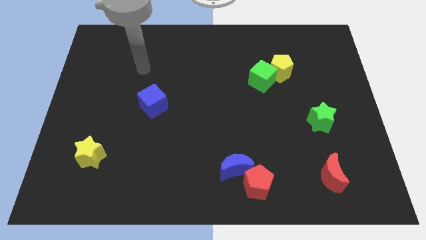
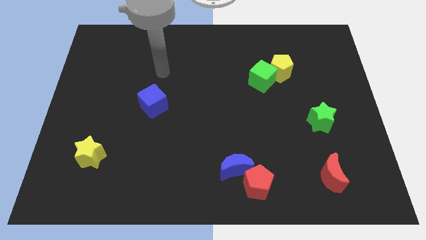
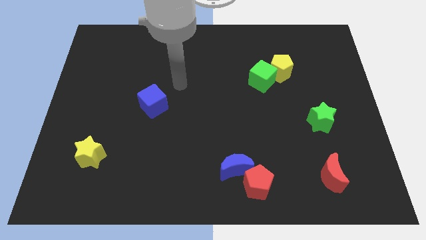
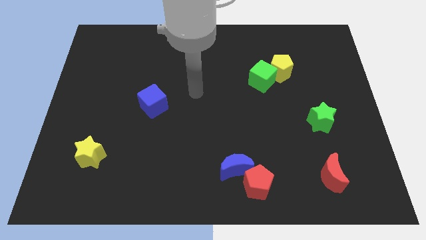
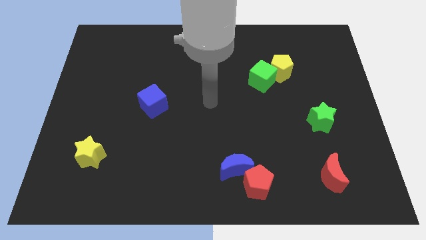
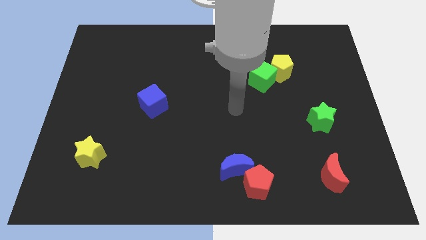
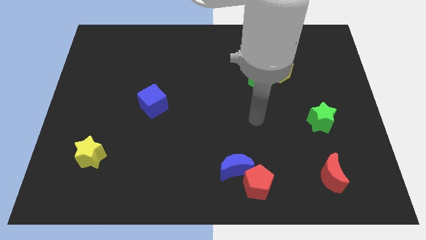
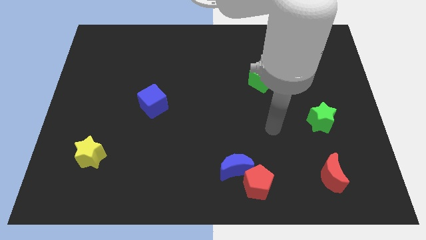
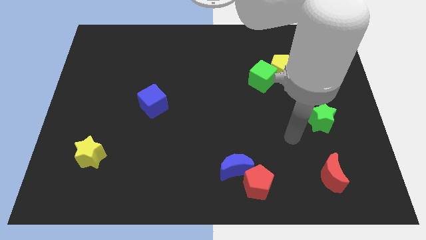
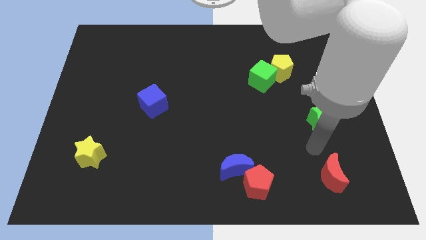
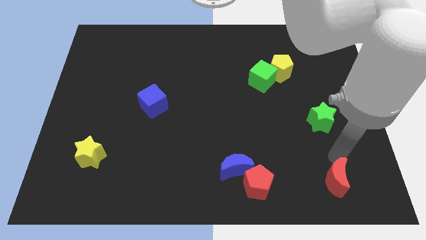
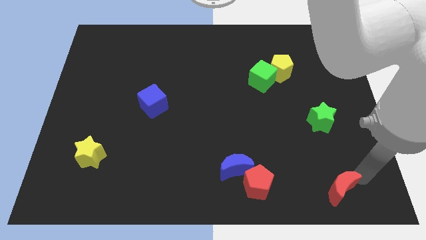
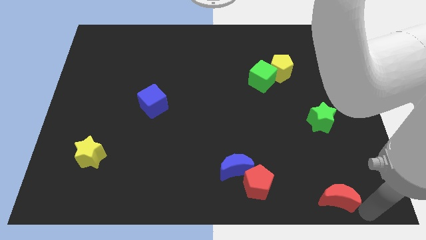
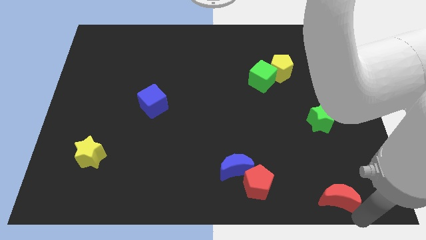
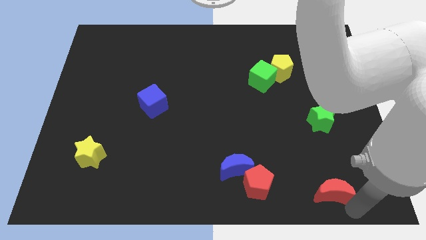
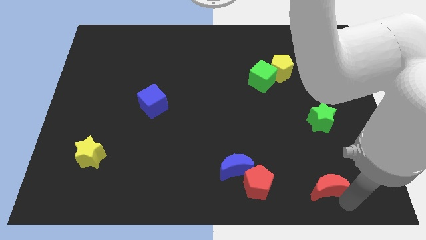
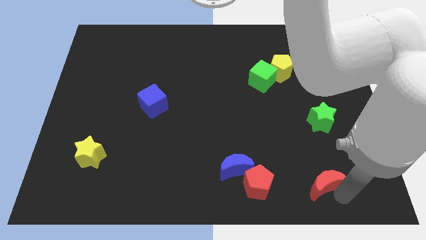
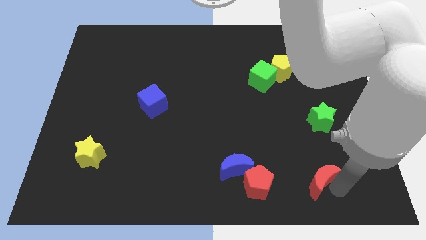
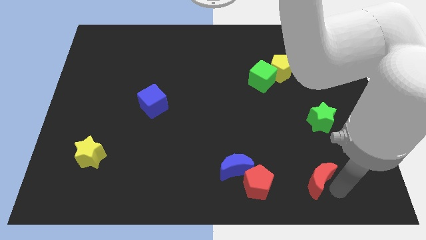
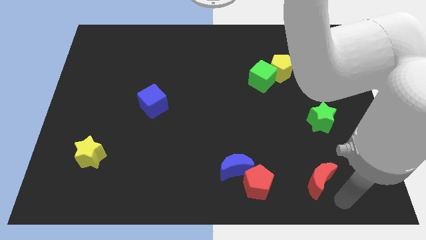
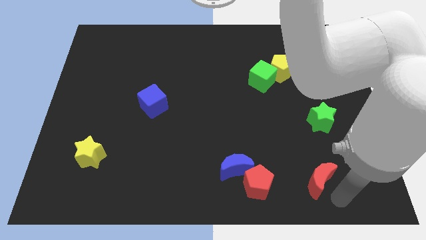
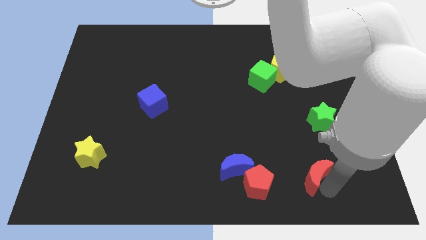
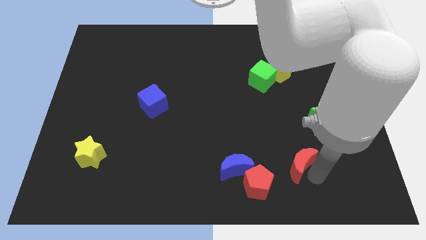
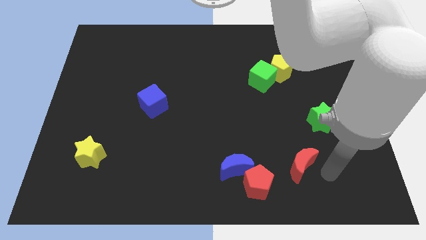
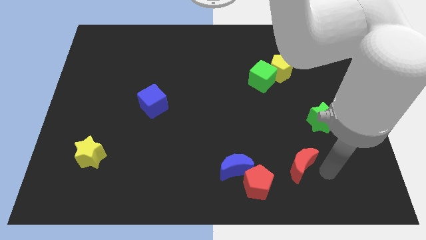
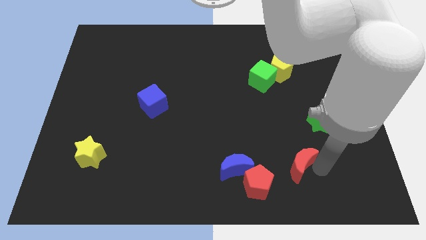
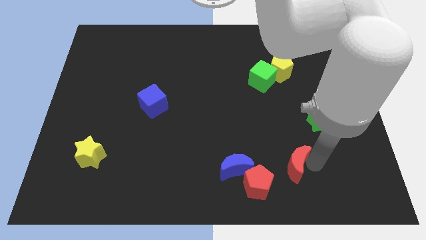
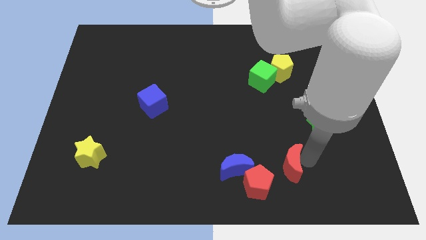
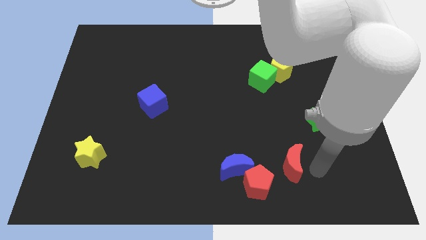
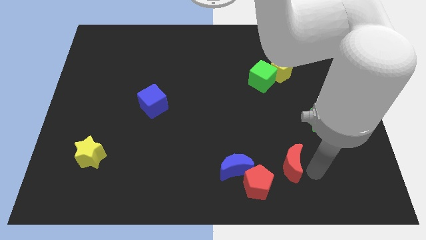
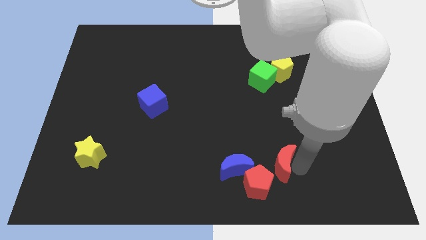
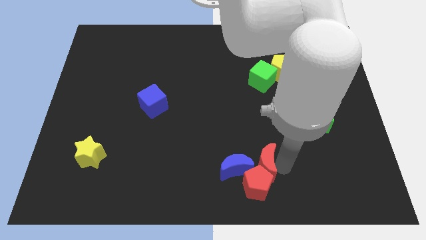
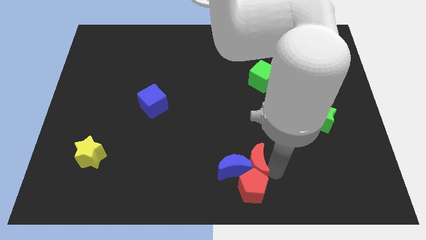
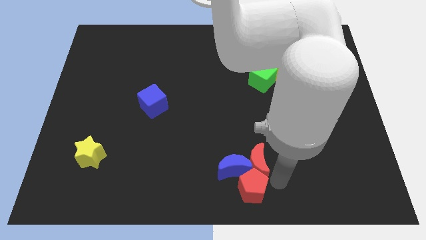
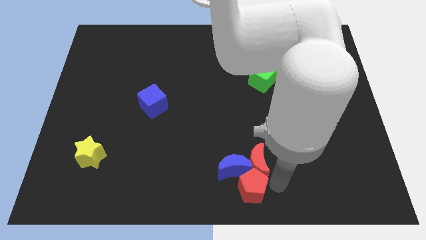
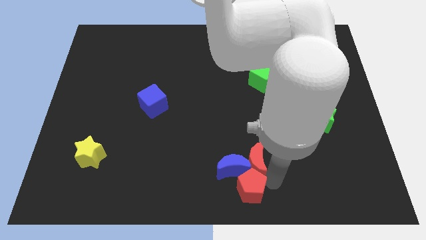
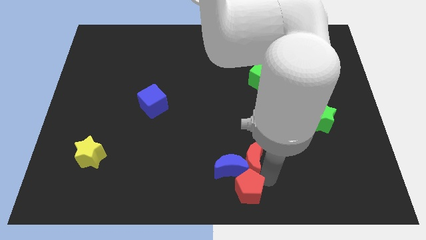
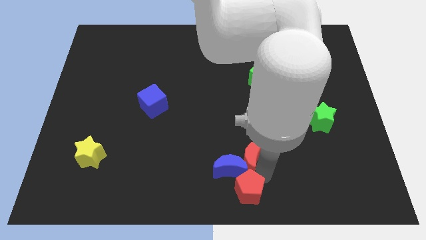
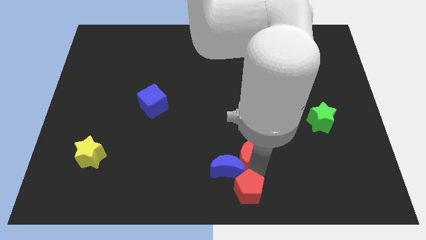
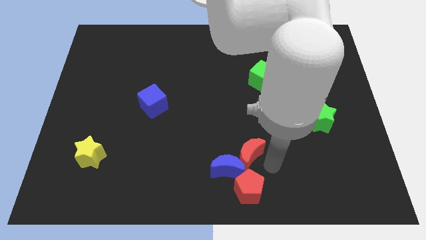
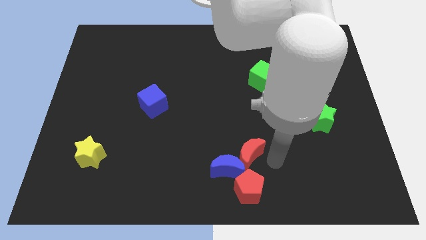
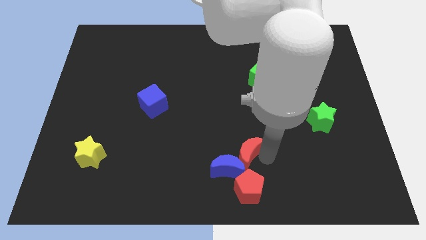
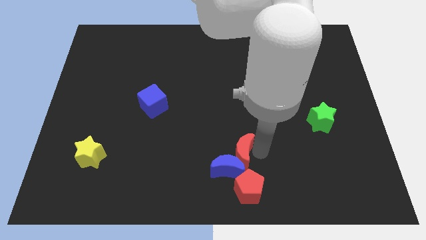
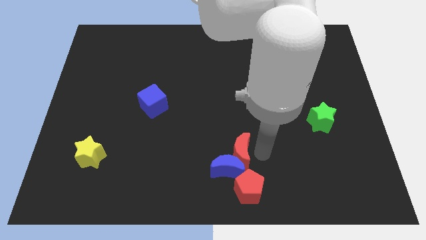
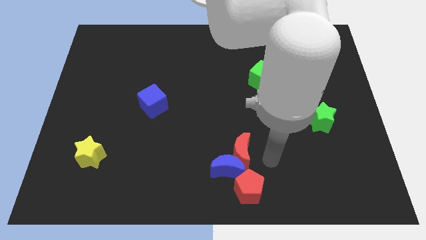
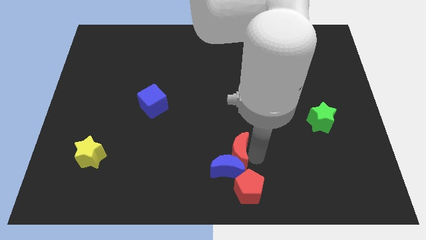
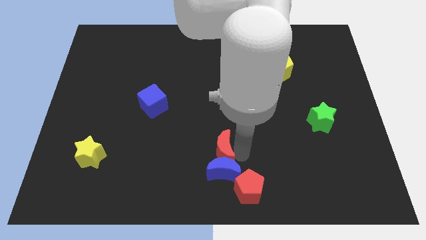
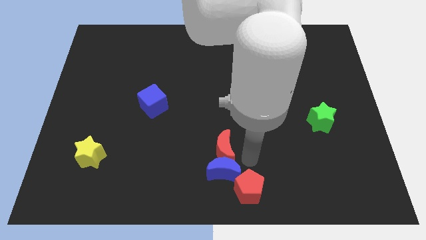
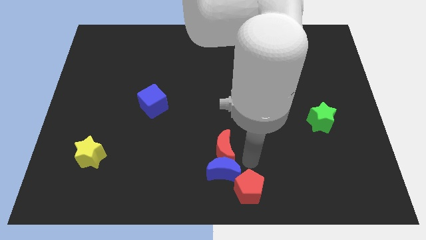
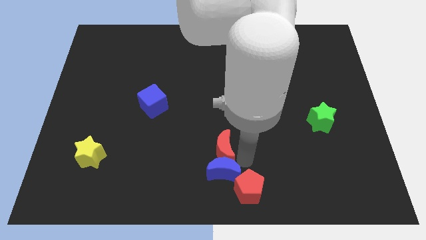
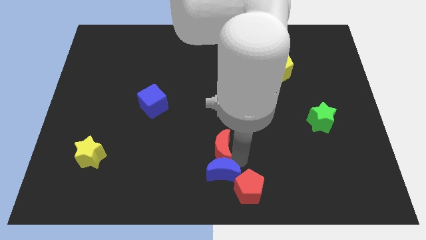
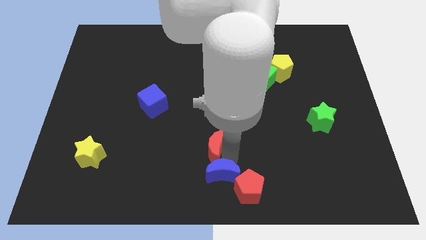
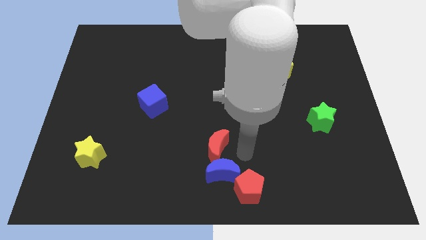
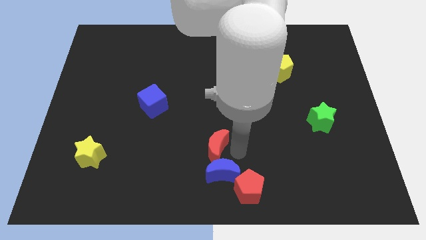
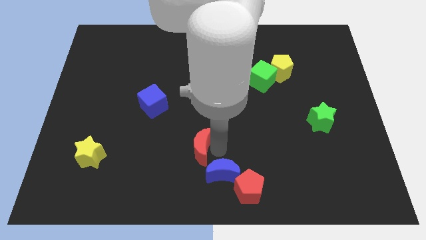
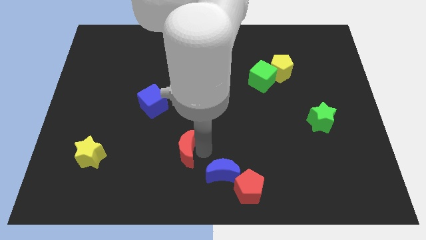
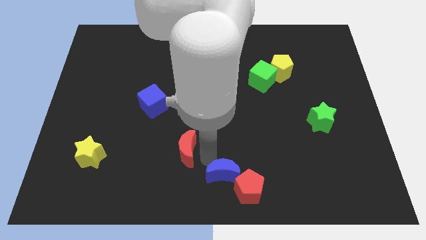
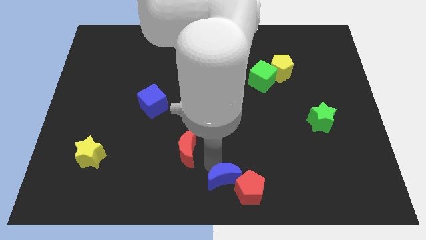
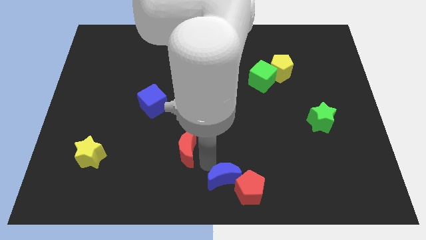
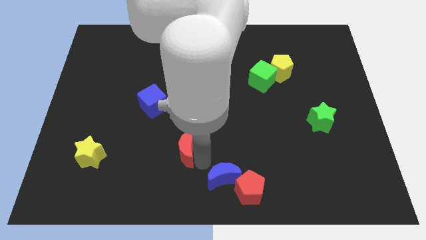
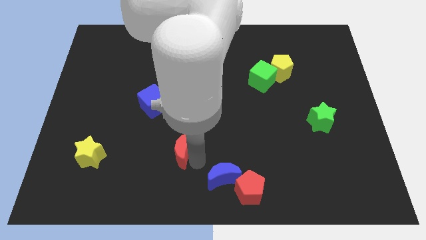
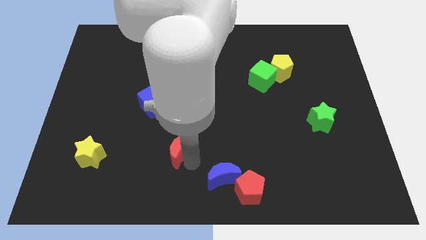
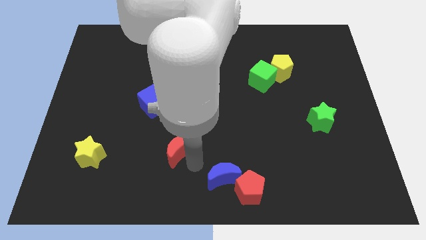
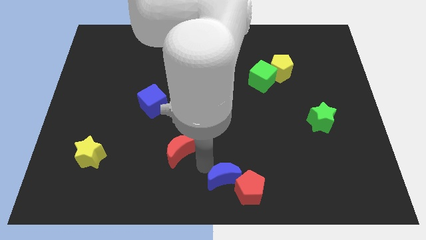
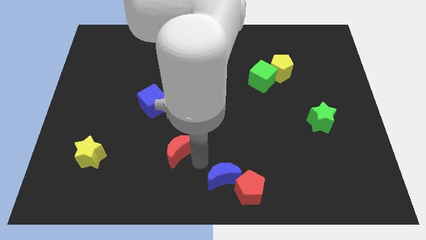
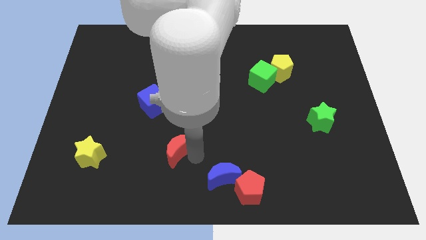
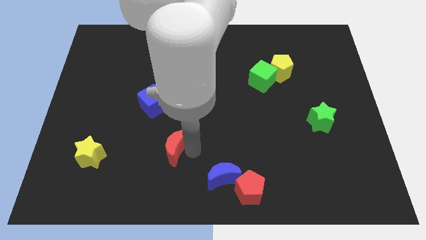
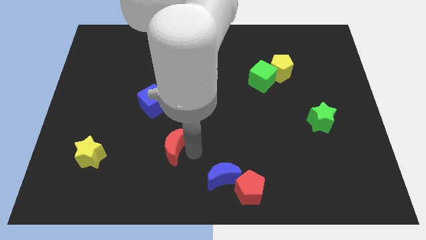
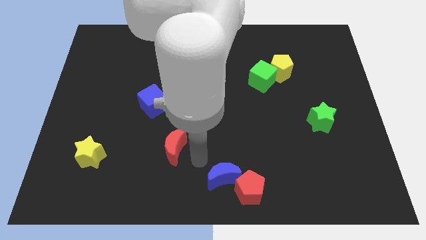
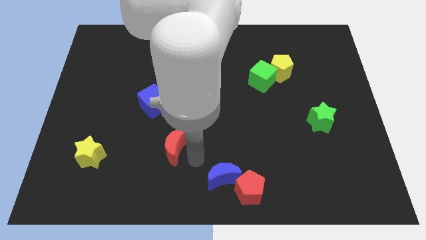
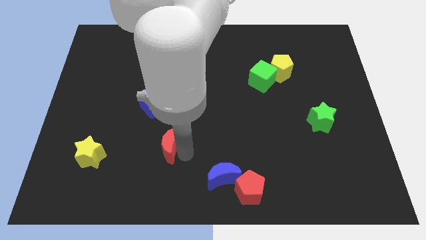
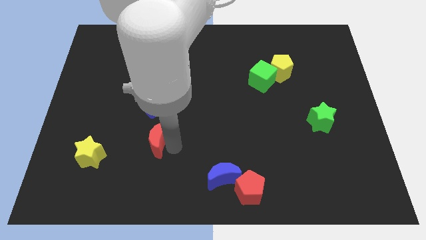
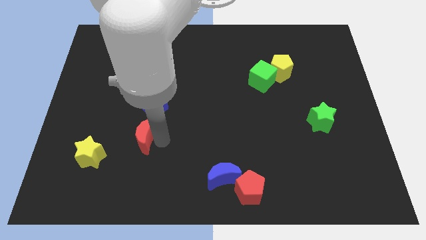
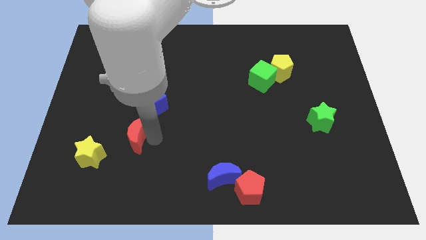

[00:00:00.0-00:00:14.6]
slide the red moon to the top right side of the yellow star
